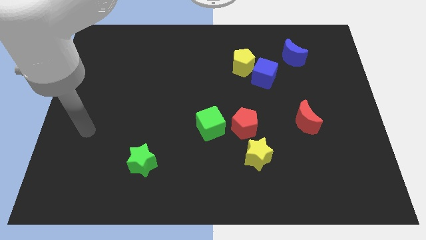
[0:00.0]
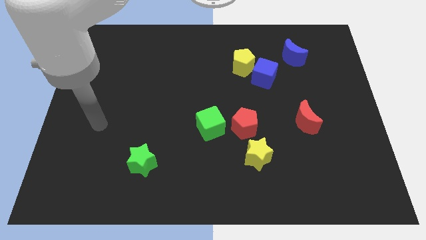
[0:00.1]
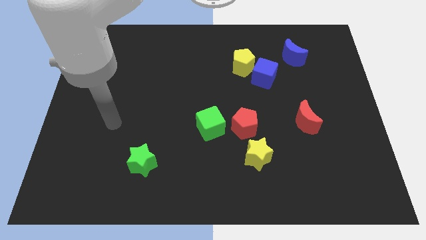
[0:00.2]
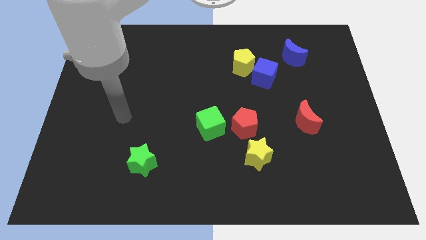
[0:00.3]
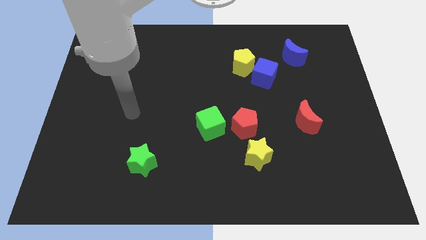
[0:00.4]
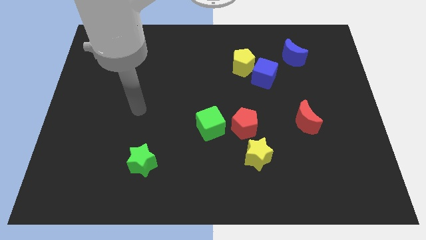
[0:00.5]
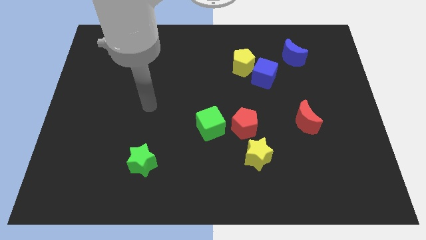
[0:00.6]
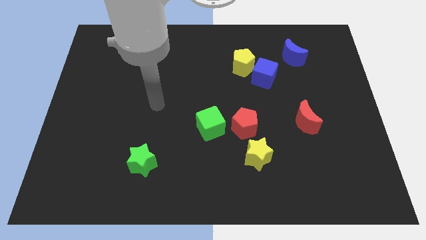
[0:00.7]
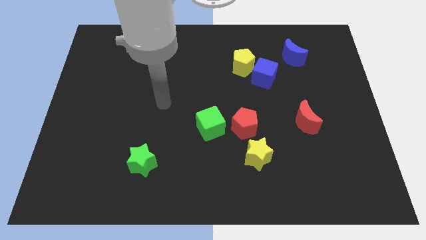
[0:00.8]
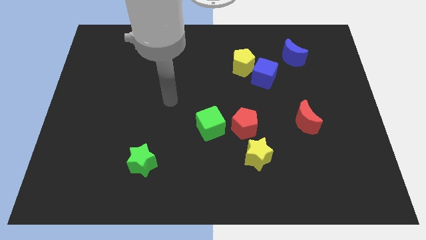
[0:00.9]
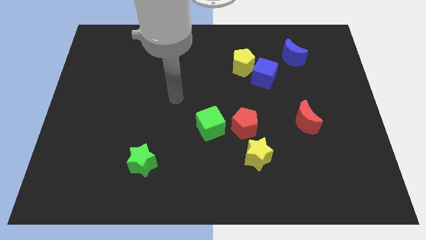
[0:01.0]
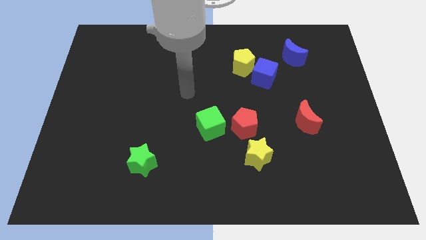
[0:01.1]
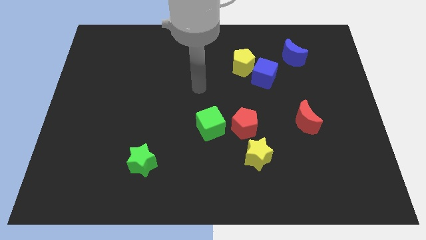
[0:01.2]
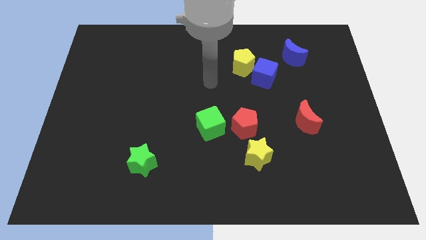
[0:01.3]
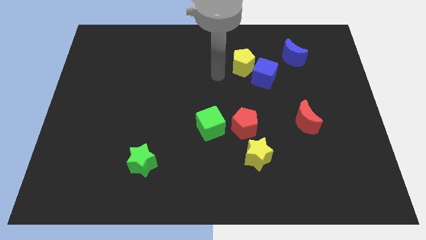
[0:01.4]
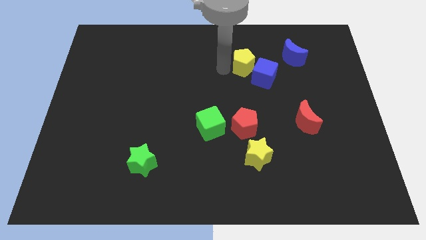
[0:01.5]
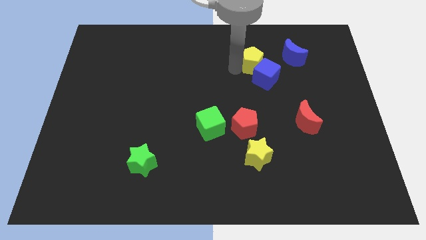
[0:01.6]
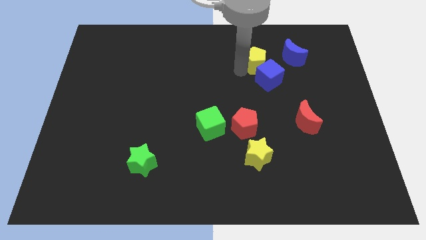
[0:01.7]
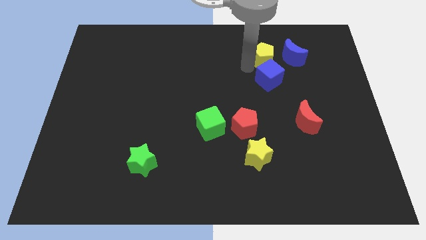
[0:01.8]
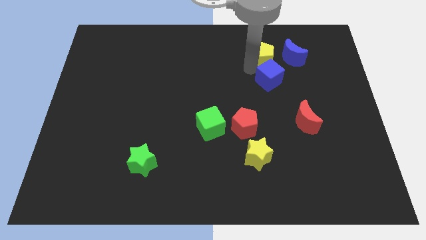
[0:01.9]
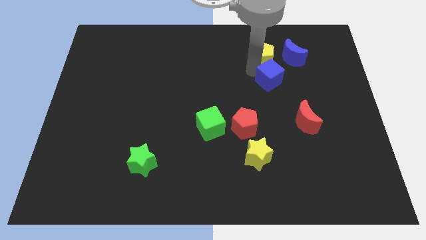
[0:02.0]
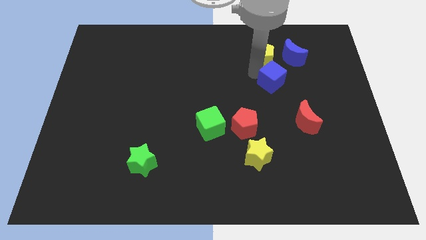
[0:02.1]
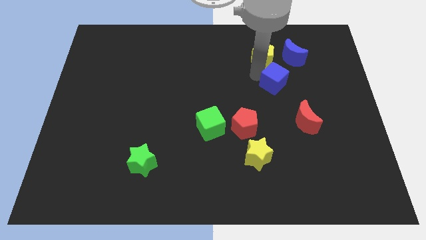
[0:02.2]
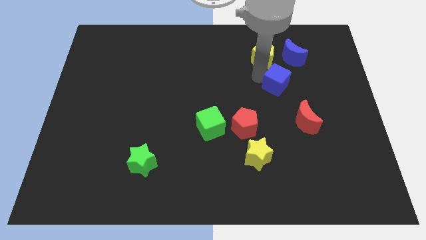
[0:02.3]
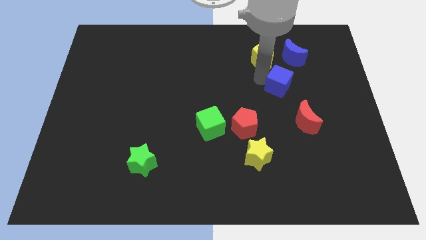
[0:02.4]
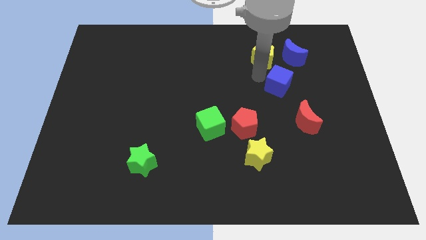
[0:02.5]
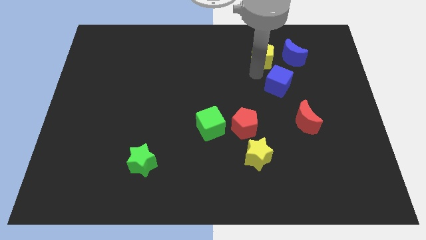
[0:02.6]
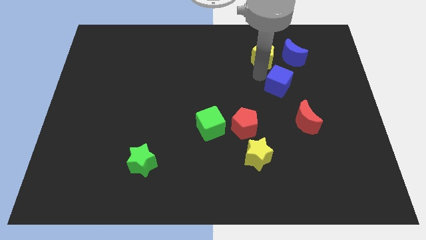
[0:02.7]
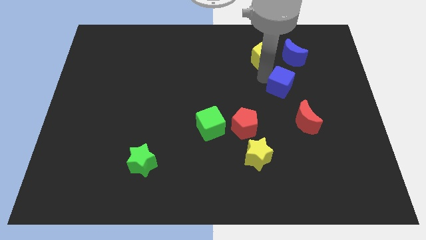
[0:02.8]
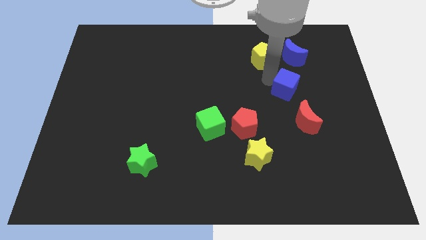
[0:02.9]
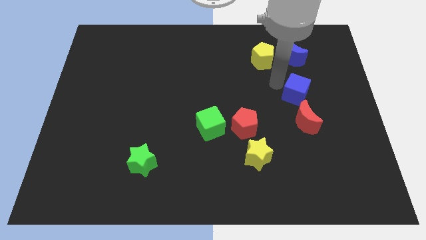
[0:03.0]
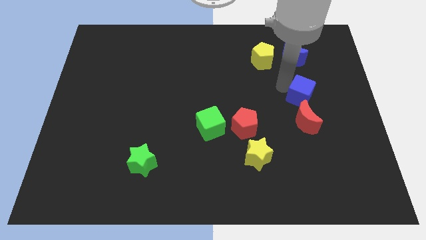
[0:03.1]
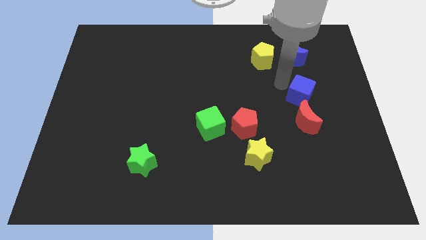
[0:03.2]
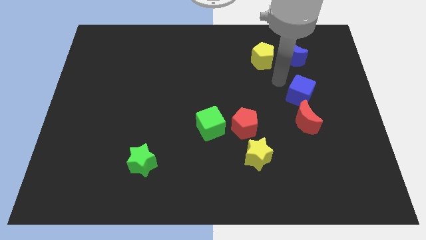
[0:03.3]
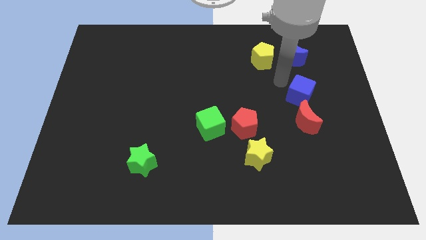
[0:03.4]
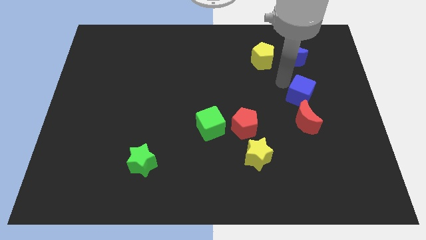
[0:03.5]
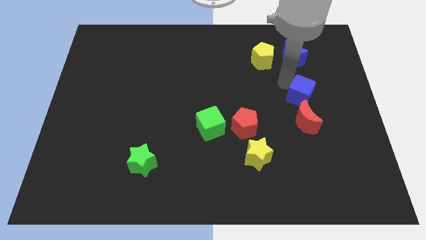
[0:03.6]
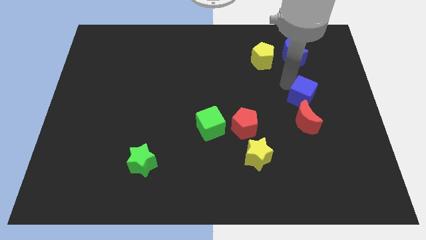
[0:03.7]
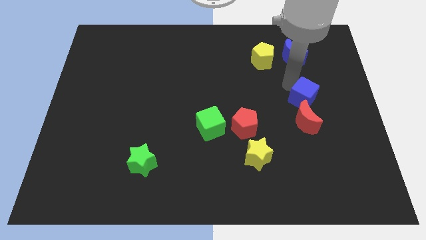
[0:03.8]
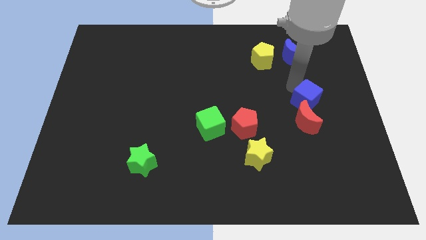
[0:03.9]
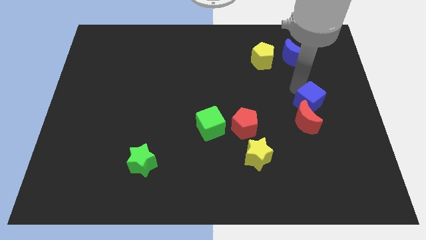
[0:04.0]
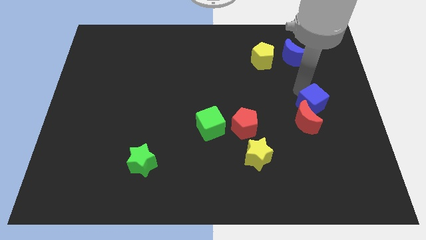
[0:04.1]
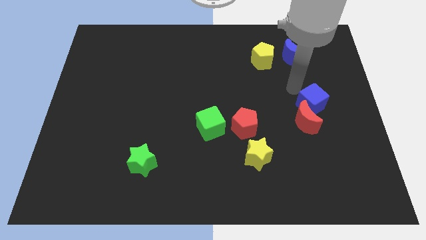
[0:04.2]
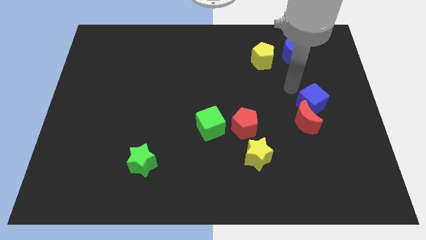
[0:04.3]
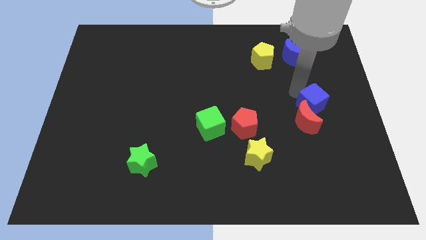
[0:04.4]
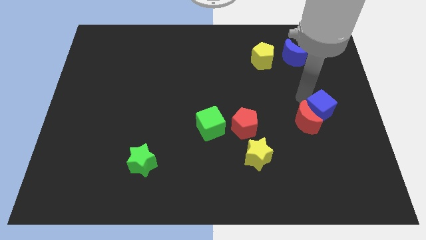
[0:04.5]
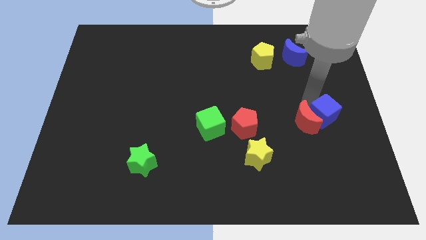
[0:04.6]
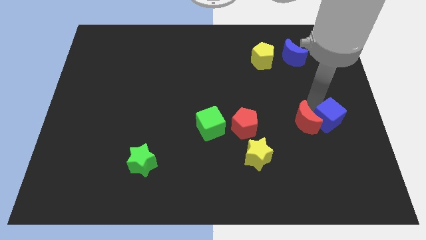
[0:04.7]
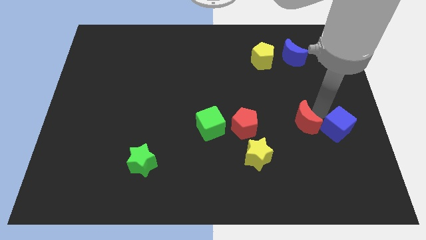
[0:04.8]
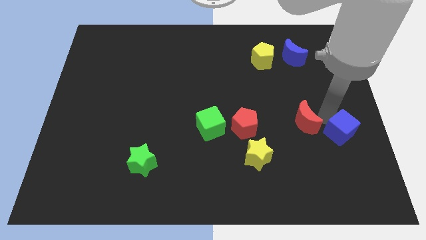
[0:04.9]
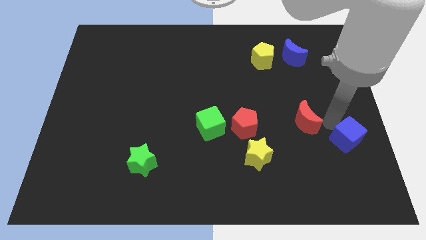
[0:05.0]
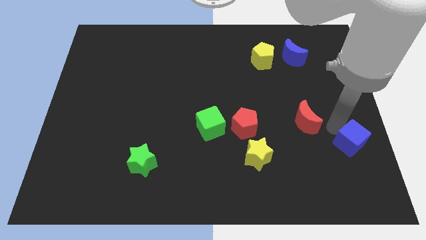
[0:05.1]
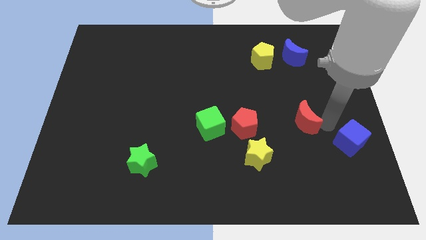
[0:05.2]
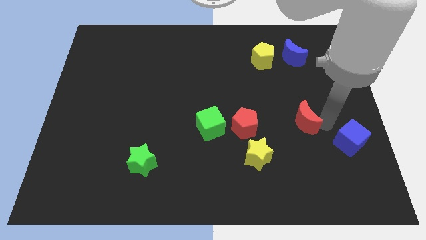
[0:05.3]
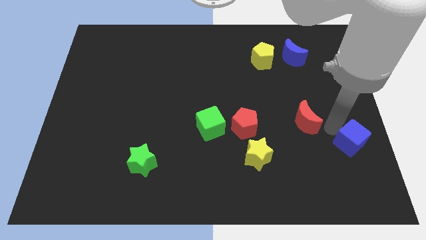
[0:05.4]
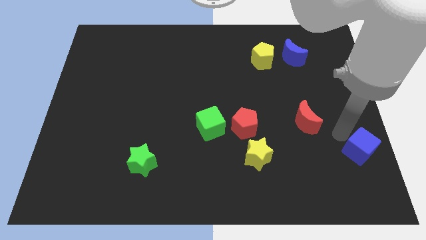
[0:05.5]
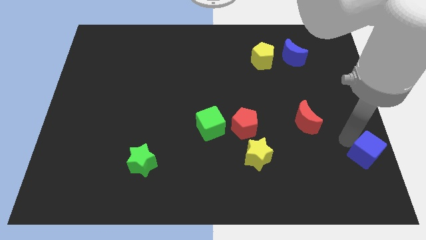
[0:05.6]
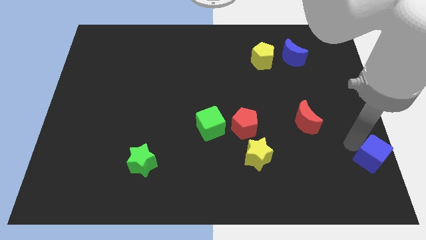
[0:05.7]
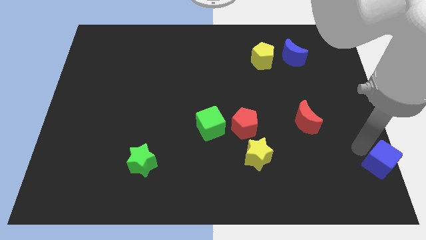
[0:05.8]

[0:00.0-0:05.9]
push the blue cube to the lower right corner

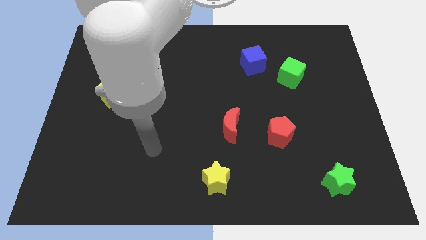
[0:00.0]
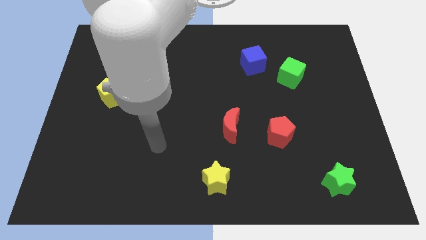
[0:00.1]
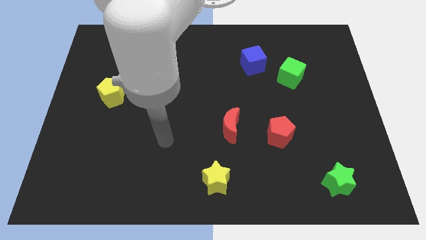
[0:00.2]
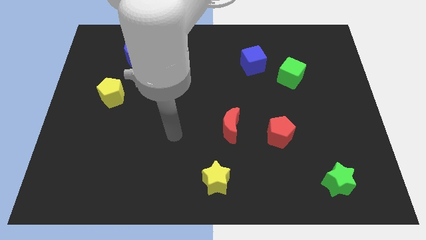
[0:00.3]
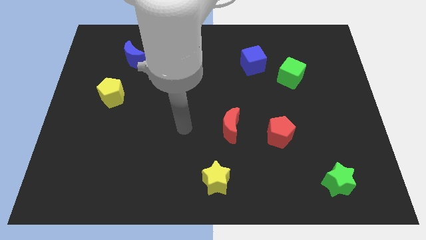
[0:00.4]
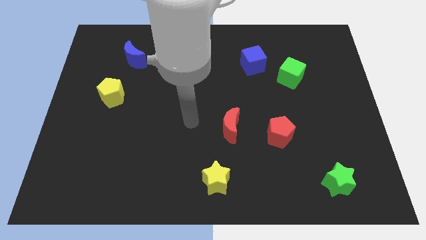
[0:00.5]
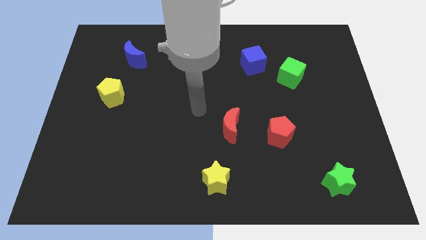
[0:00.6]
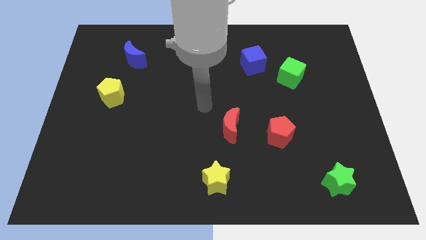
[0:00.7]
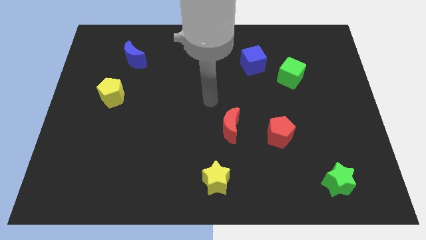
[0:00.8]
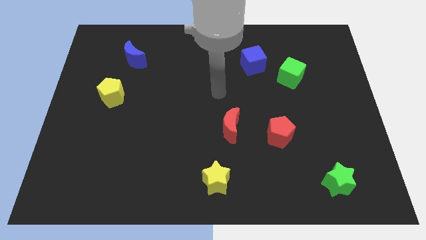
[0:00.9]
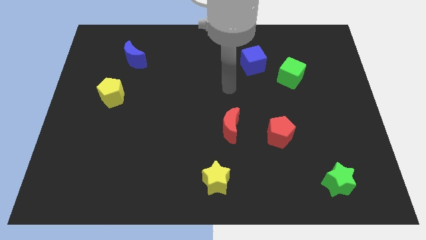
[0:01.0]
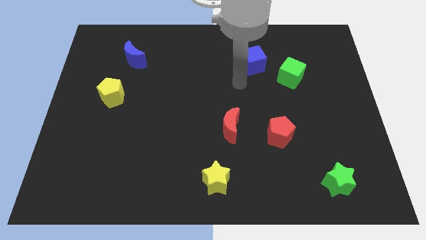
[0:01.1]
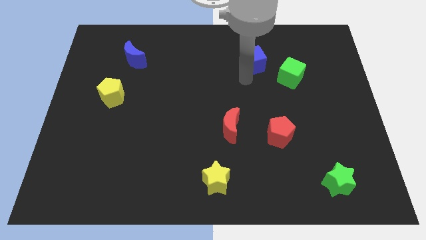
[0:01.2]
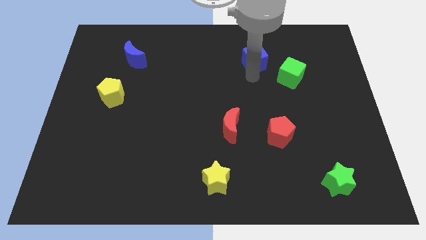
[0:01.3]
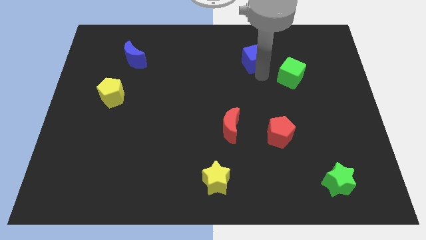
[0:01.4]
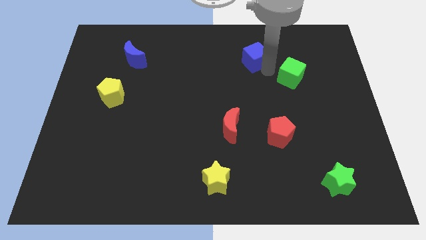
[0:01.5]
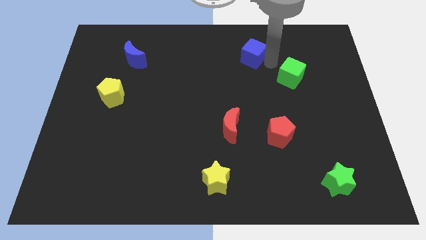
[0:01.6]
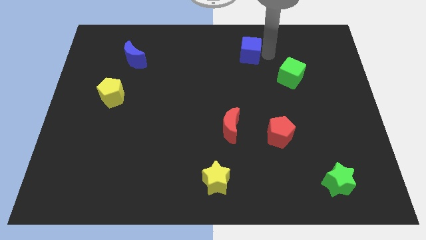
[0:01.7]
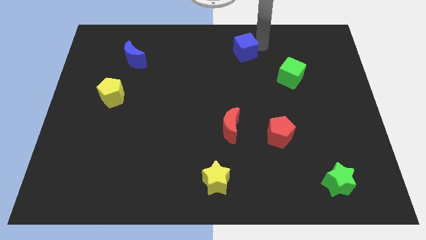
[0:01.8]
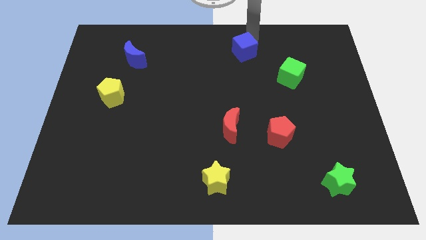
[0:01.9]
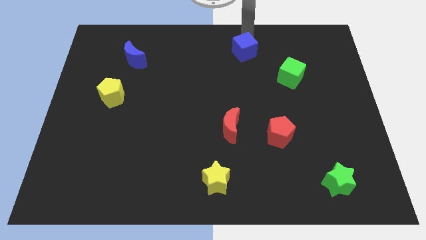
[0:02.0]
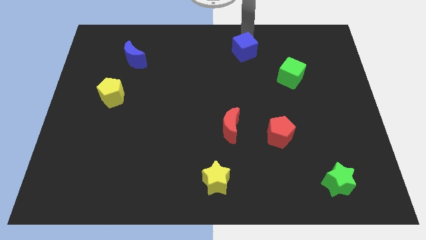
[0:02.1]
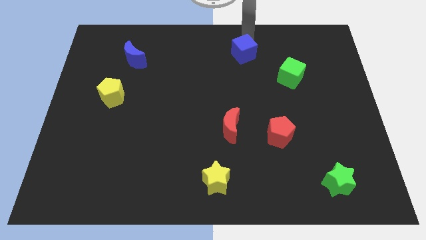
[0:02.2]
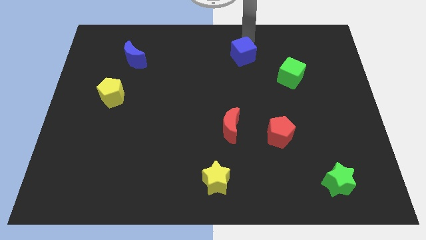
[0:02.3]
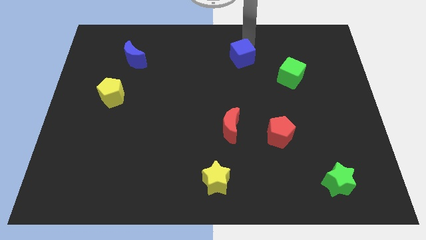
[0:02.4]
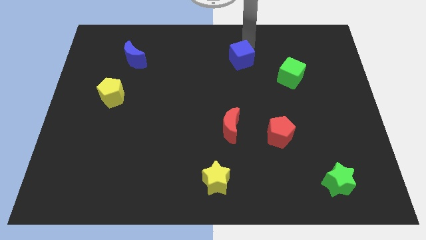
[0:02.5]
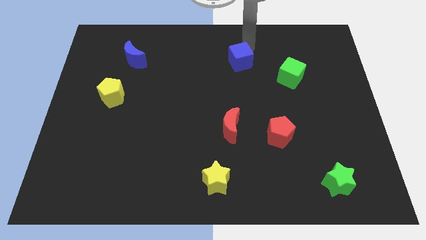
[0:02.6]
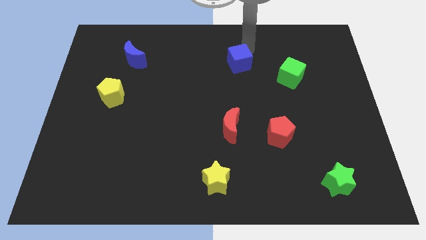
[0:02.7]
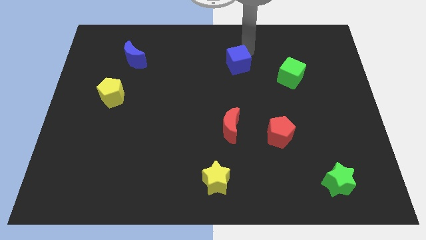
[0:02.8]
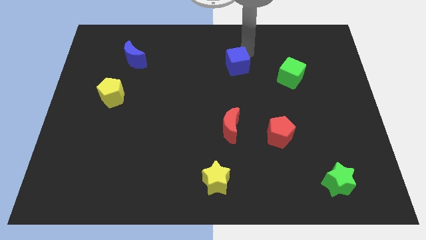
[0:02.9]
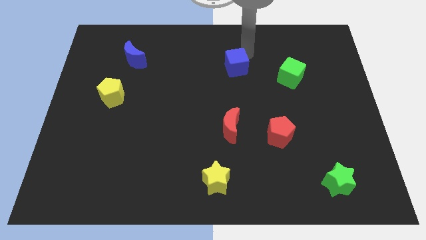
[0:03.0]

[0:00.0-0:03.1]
slide the blue cube to the middle of the board
